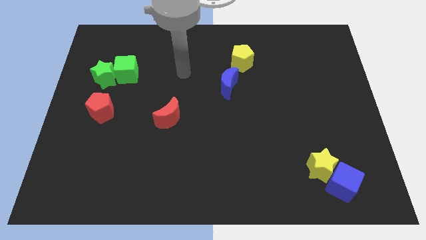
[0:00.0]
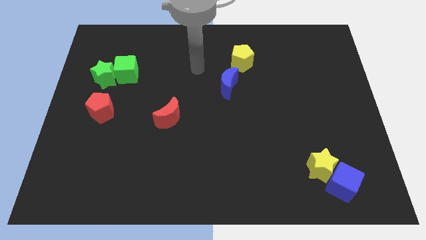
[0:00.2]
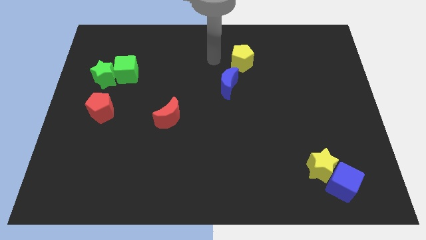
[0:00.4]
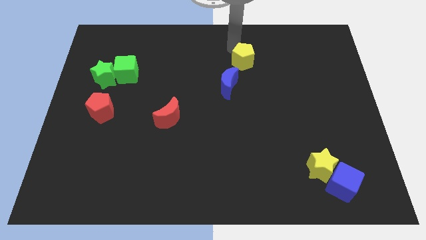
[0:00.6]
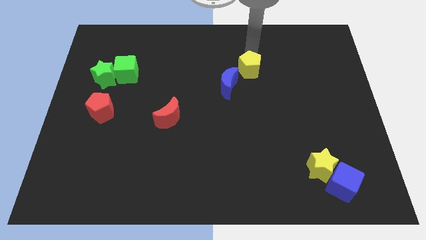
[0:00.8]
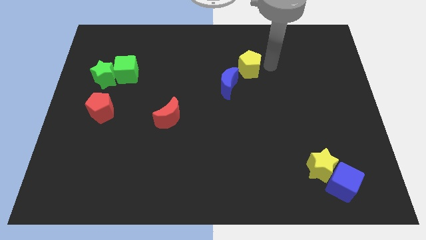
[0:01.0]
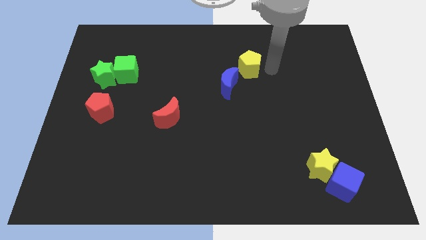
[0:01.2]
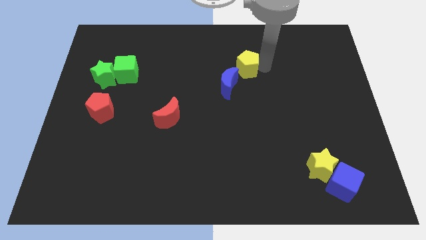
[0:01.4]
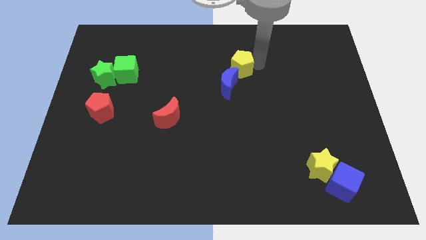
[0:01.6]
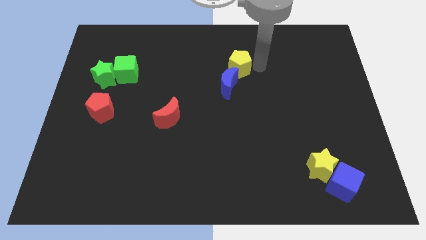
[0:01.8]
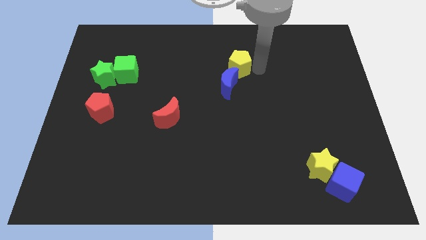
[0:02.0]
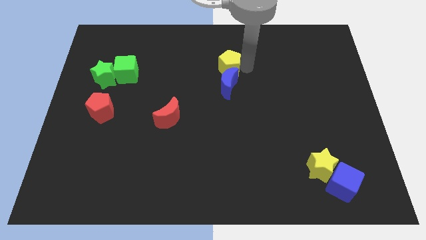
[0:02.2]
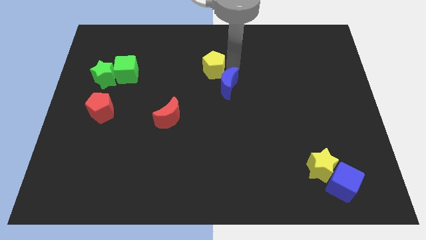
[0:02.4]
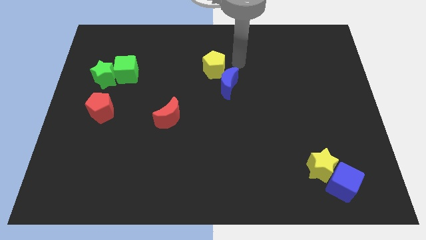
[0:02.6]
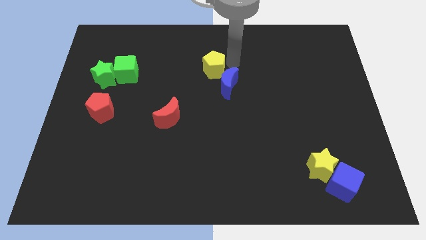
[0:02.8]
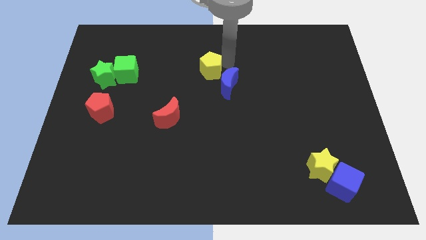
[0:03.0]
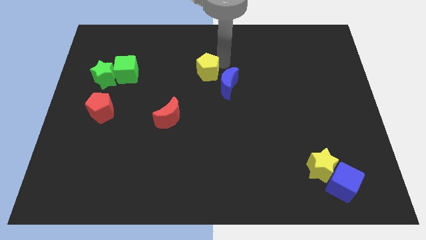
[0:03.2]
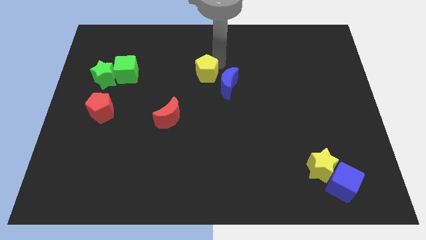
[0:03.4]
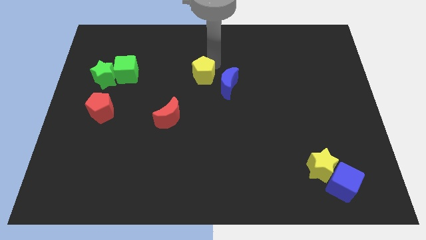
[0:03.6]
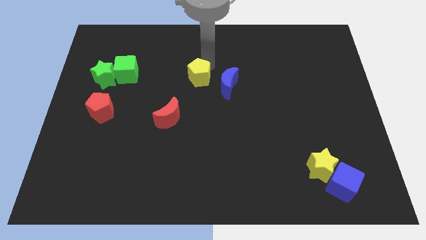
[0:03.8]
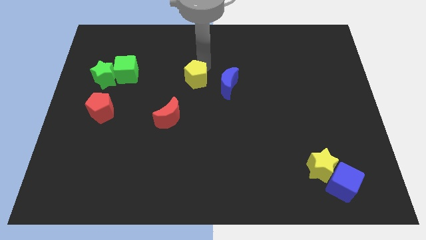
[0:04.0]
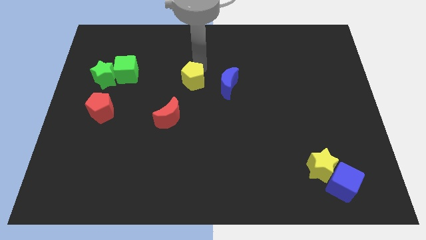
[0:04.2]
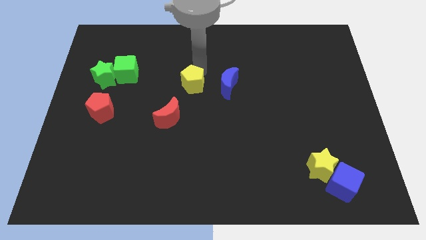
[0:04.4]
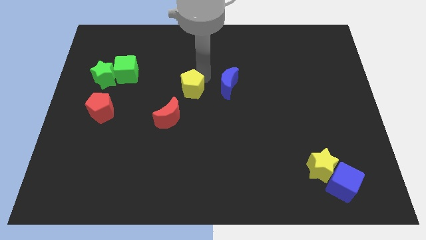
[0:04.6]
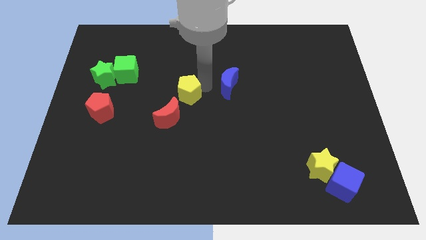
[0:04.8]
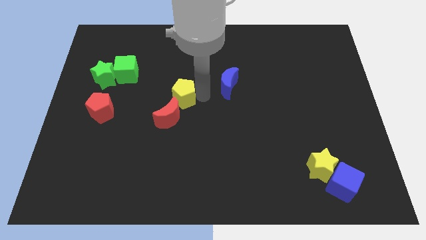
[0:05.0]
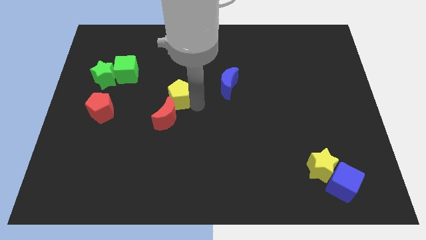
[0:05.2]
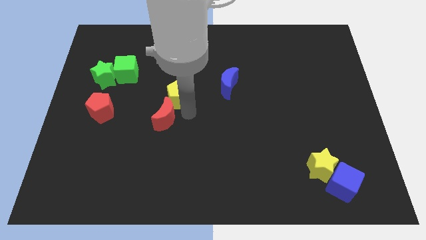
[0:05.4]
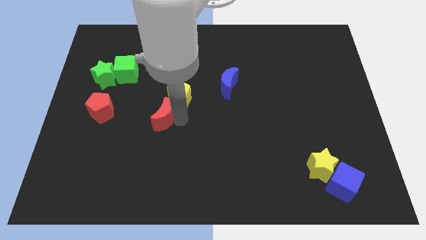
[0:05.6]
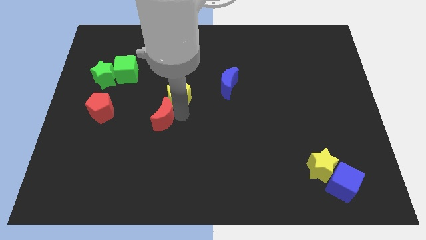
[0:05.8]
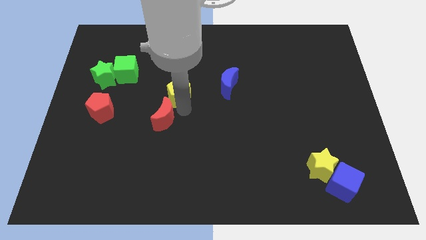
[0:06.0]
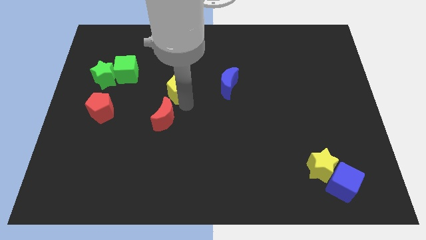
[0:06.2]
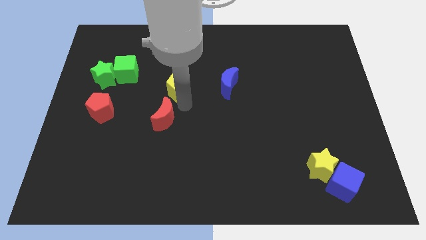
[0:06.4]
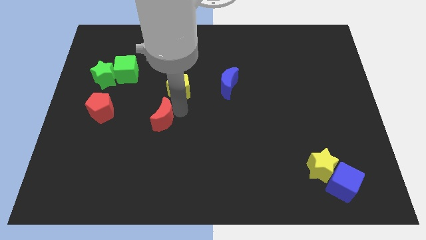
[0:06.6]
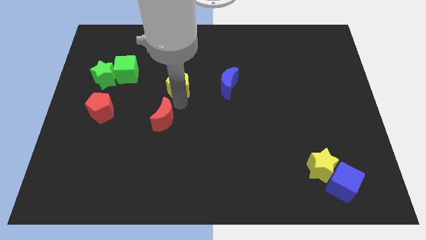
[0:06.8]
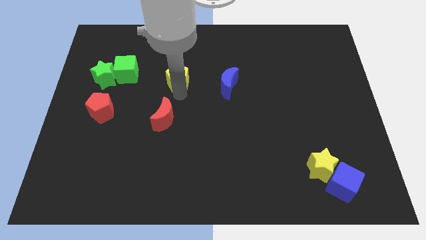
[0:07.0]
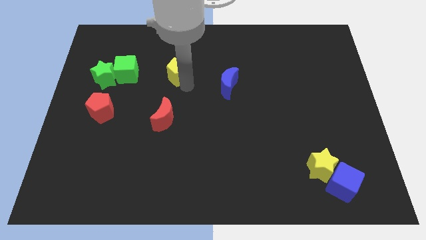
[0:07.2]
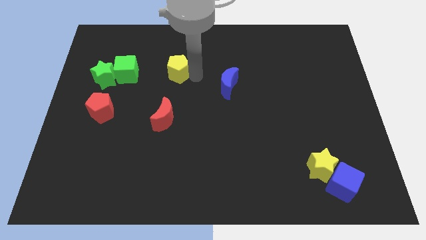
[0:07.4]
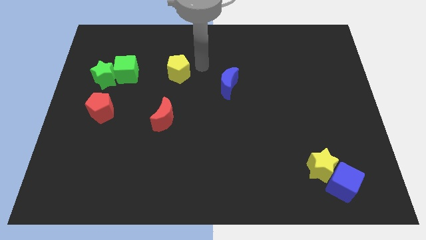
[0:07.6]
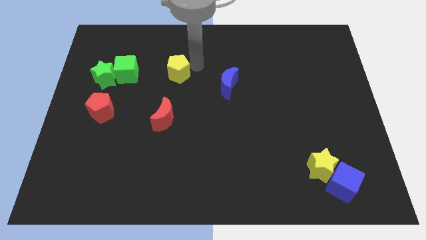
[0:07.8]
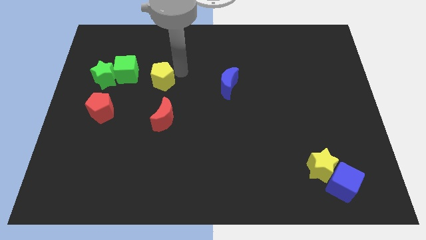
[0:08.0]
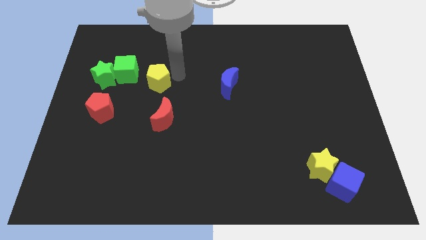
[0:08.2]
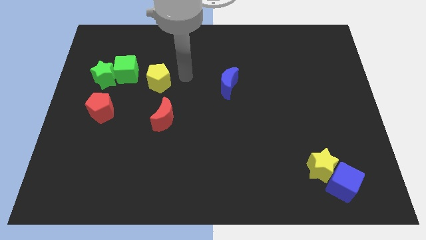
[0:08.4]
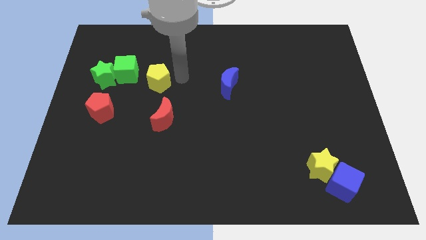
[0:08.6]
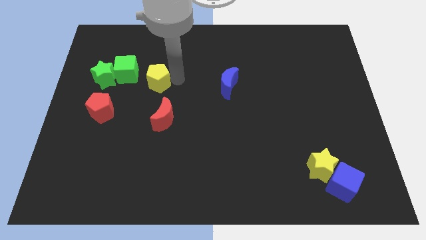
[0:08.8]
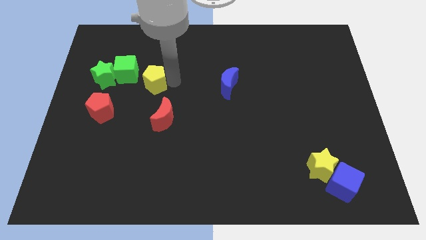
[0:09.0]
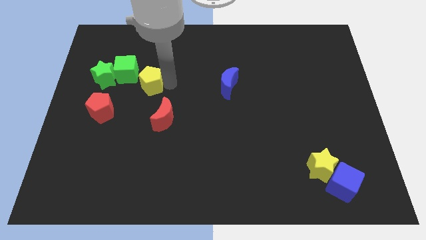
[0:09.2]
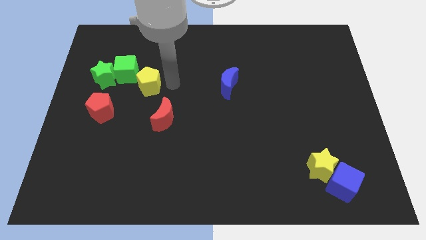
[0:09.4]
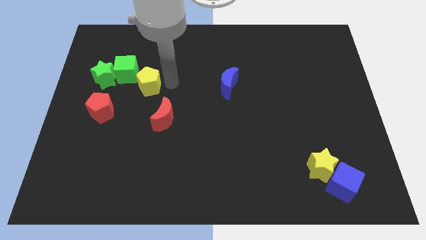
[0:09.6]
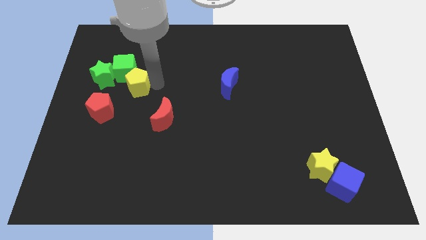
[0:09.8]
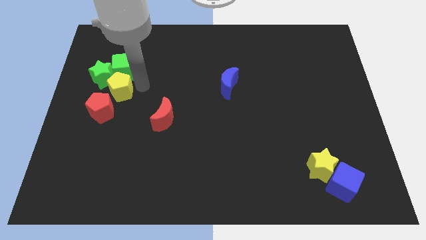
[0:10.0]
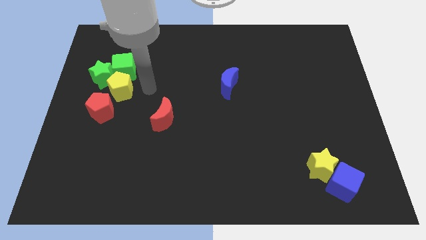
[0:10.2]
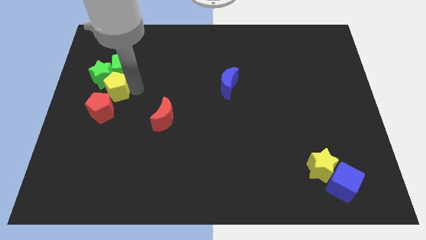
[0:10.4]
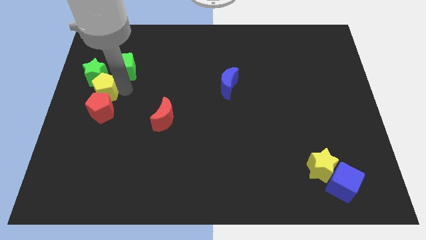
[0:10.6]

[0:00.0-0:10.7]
slide the yellow pentagon to the left side

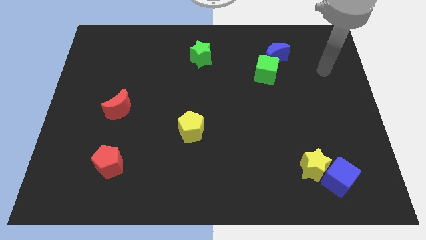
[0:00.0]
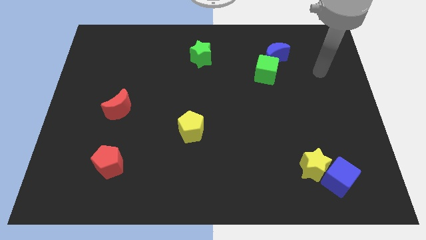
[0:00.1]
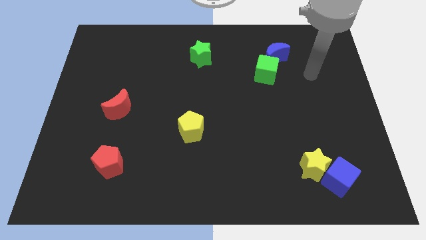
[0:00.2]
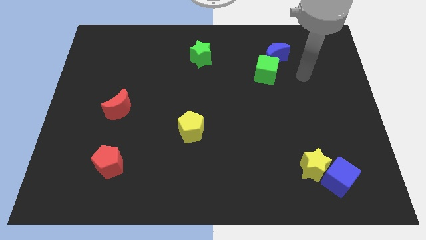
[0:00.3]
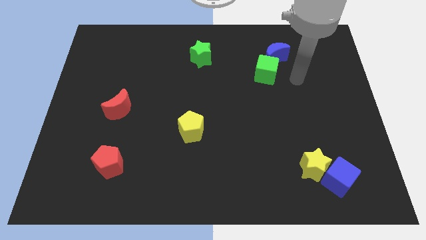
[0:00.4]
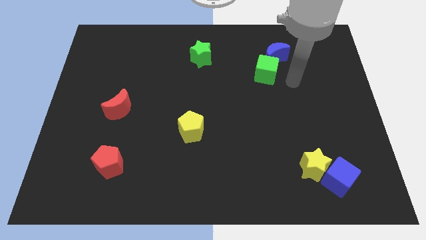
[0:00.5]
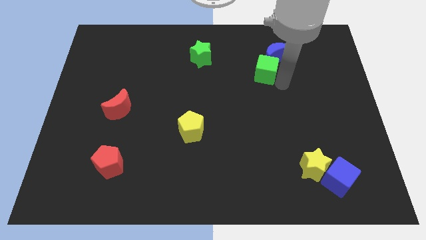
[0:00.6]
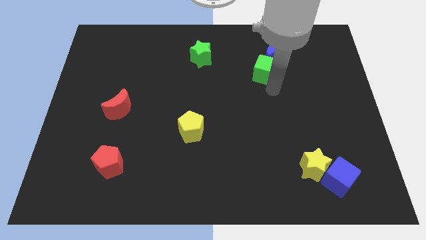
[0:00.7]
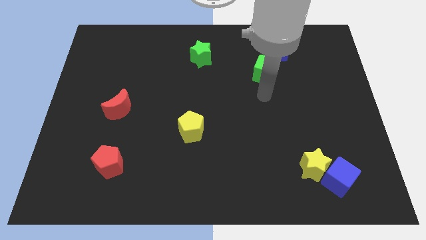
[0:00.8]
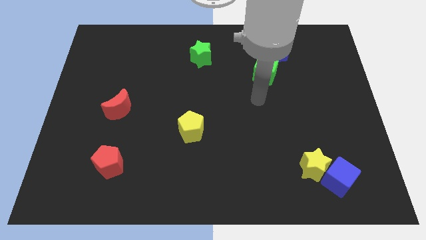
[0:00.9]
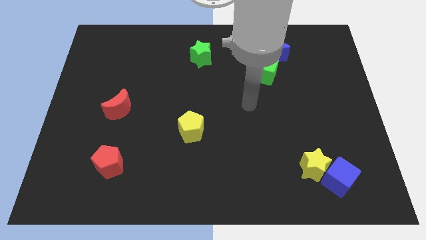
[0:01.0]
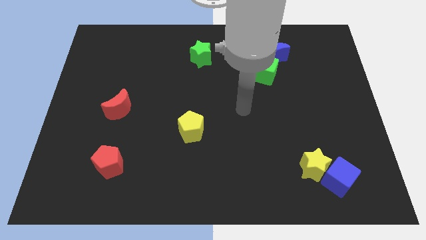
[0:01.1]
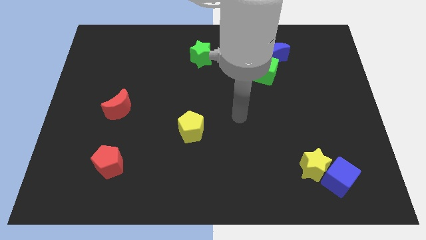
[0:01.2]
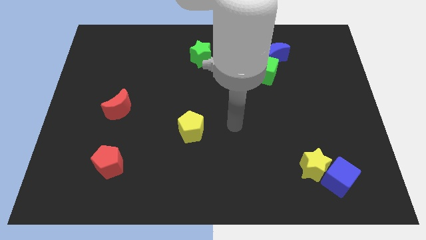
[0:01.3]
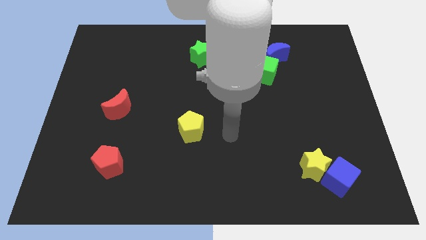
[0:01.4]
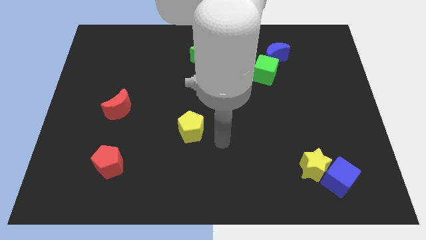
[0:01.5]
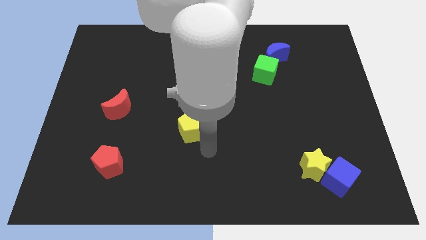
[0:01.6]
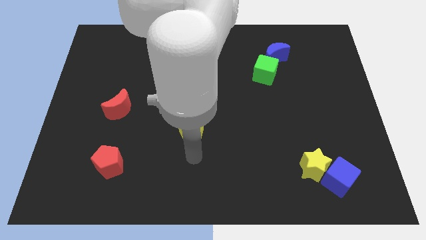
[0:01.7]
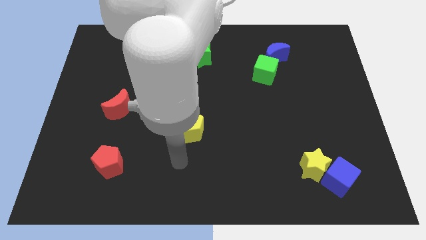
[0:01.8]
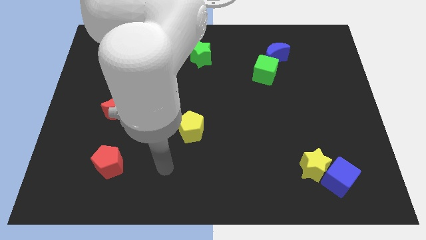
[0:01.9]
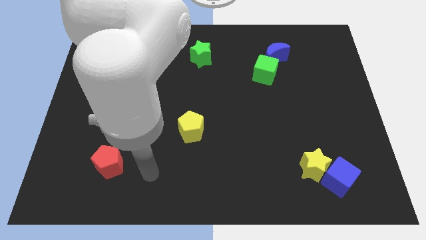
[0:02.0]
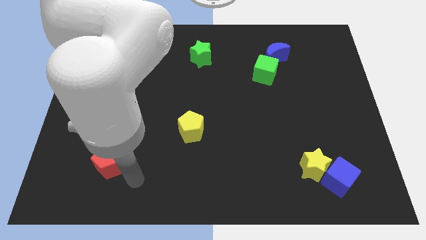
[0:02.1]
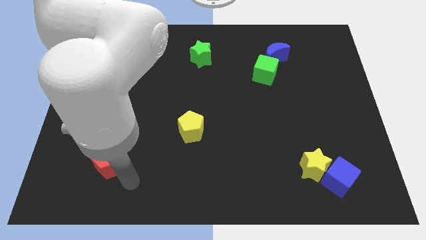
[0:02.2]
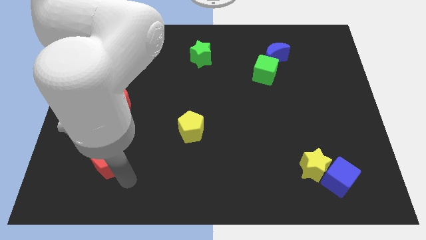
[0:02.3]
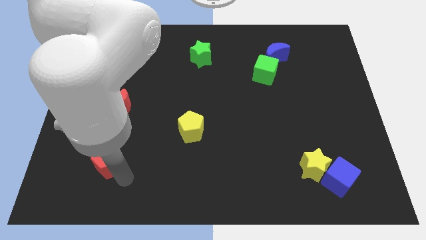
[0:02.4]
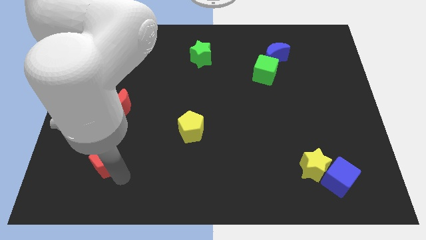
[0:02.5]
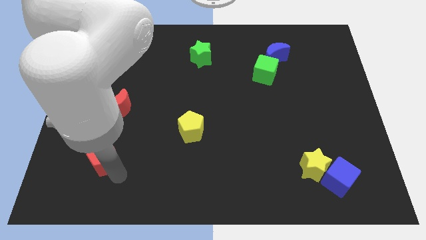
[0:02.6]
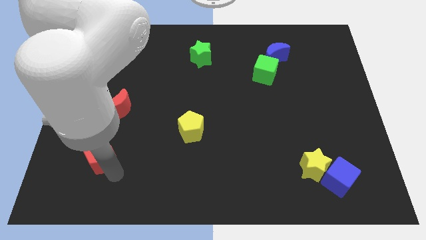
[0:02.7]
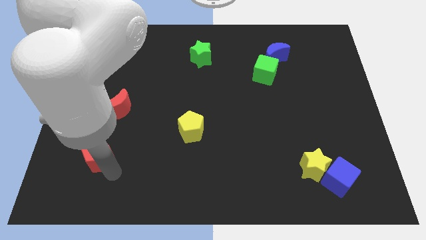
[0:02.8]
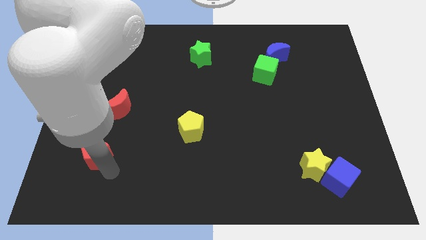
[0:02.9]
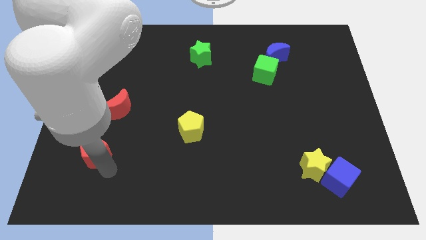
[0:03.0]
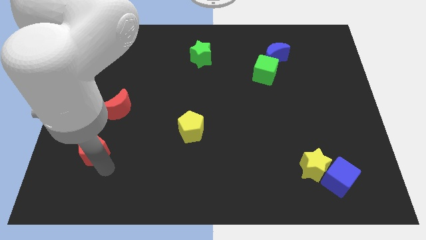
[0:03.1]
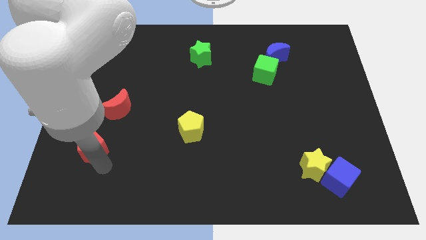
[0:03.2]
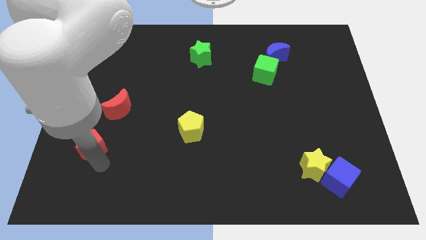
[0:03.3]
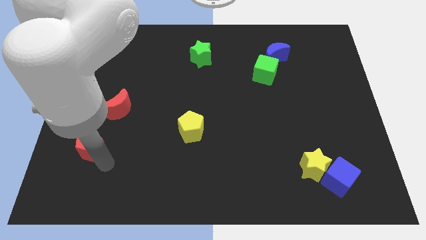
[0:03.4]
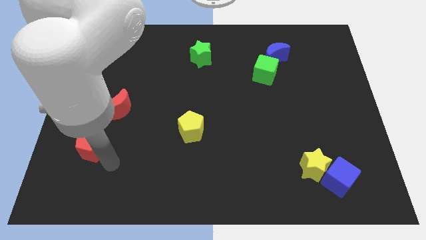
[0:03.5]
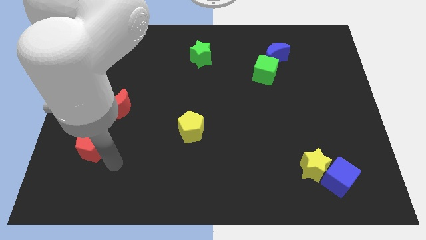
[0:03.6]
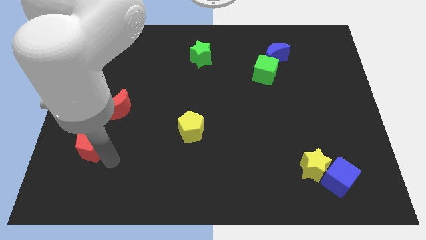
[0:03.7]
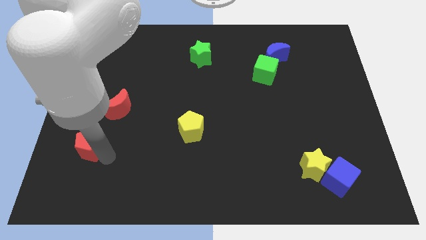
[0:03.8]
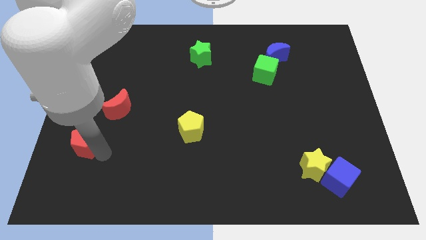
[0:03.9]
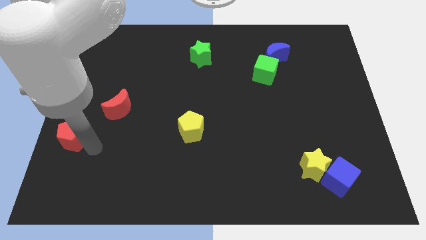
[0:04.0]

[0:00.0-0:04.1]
put the red pentagon to the left side of the board
